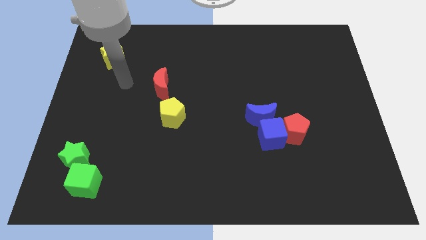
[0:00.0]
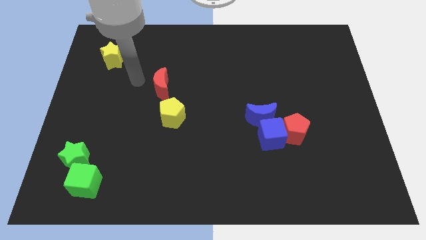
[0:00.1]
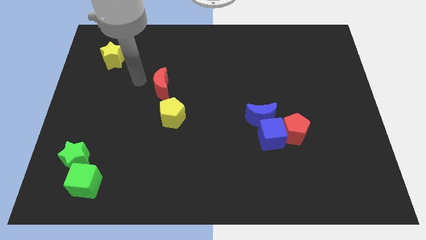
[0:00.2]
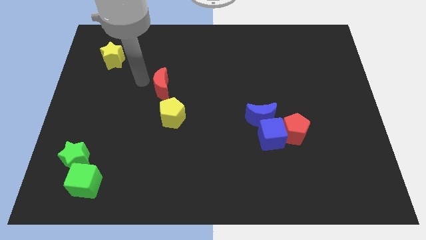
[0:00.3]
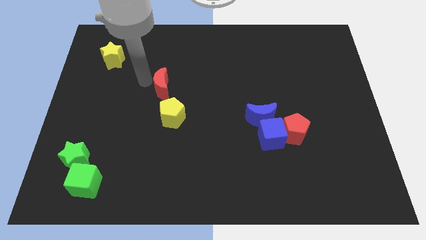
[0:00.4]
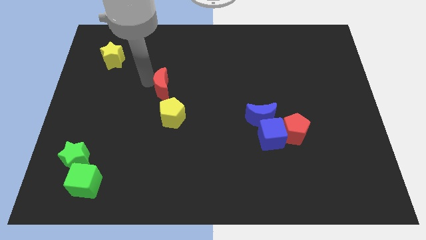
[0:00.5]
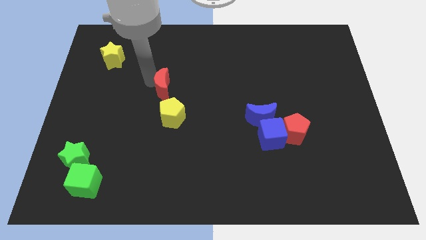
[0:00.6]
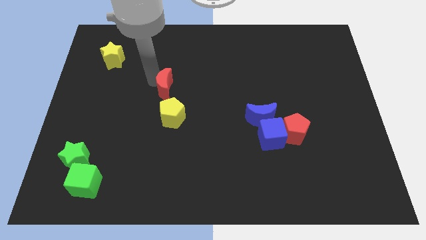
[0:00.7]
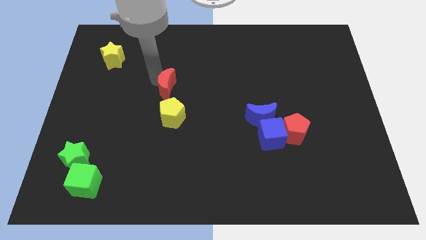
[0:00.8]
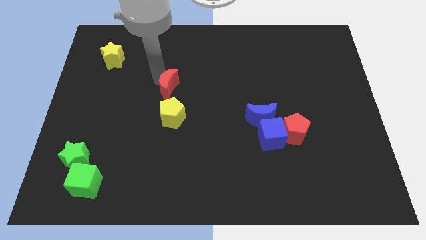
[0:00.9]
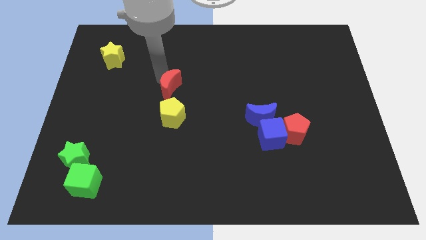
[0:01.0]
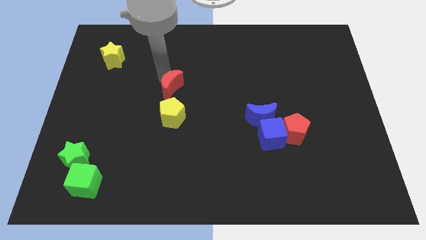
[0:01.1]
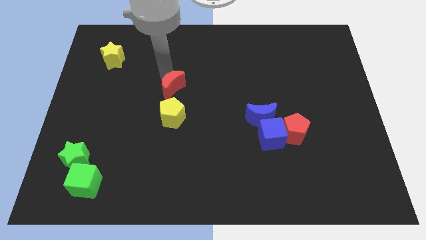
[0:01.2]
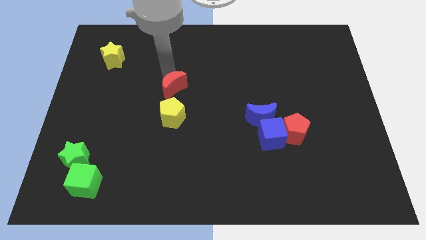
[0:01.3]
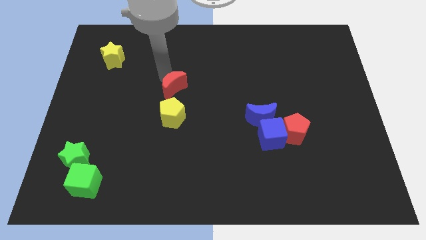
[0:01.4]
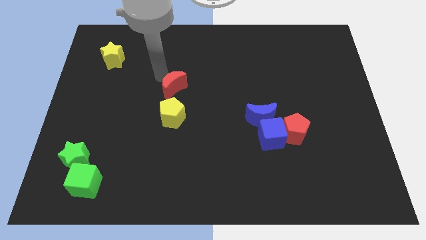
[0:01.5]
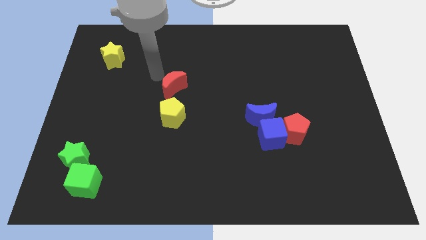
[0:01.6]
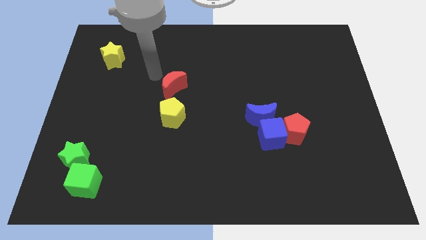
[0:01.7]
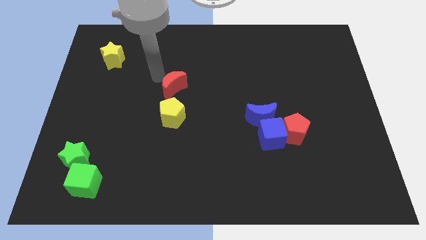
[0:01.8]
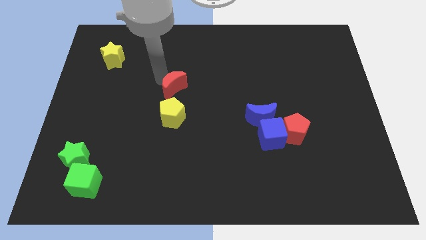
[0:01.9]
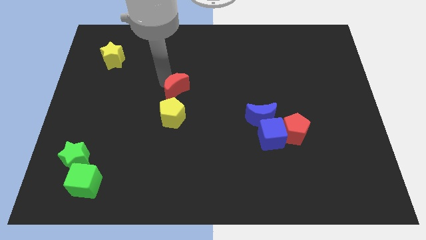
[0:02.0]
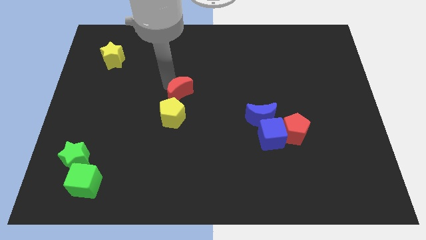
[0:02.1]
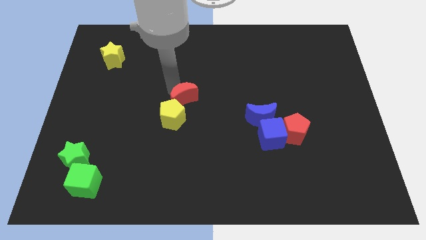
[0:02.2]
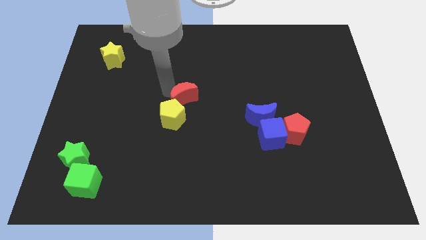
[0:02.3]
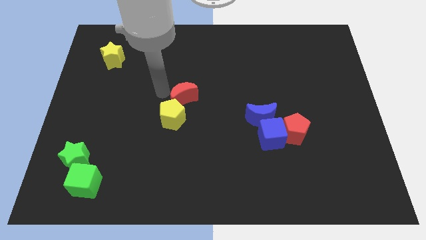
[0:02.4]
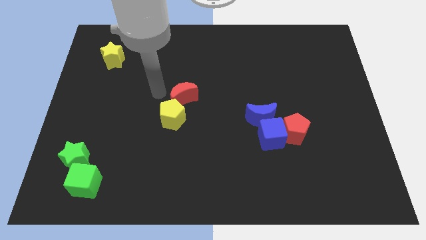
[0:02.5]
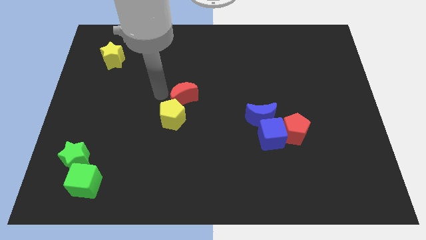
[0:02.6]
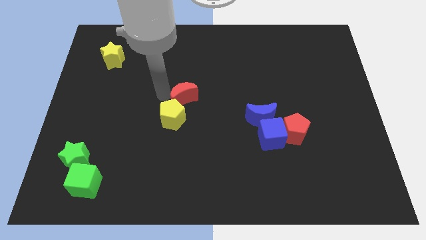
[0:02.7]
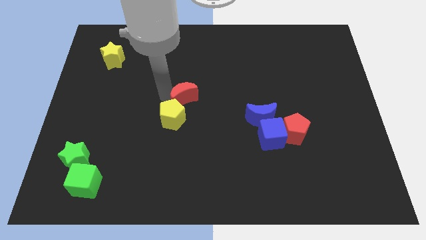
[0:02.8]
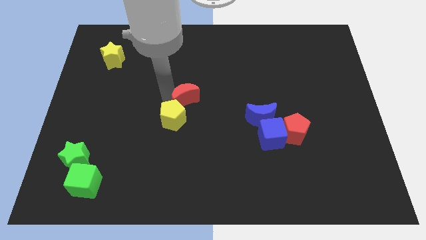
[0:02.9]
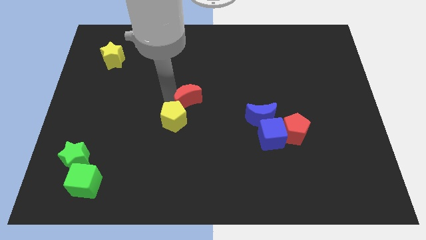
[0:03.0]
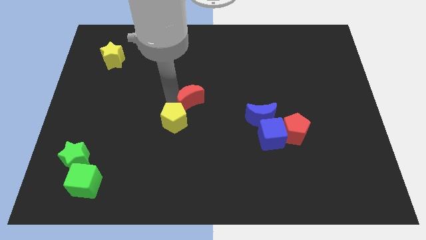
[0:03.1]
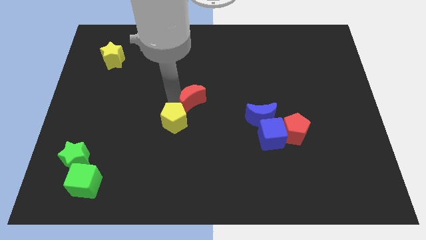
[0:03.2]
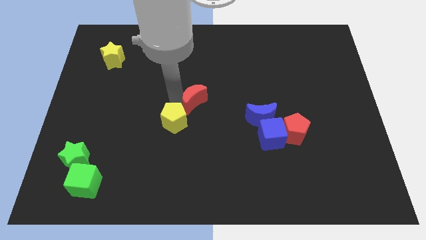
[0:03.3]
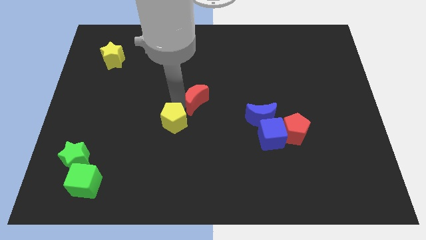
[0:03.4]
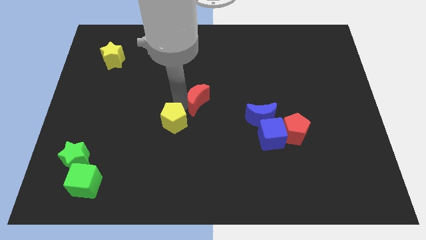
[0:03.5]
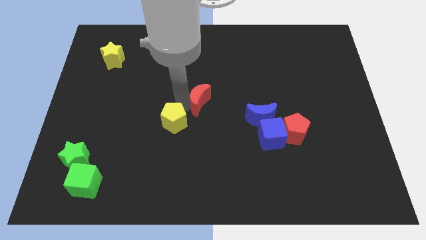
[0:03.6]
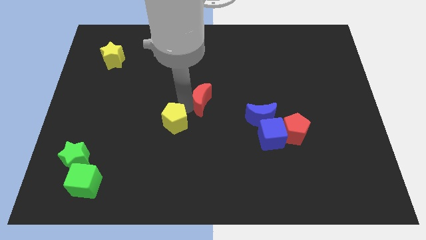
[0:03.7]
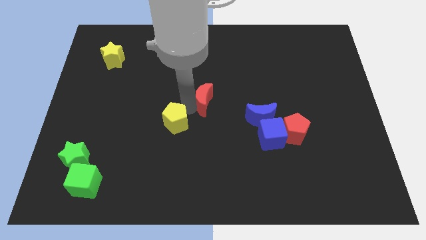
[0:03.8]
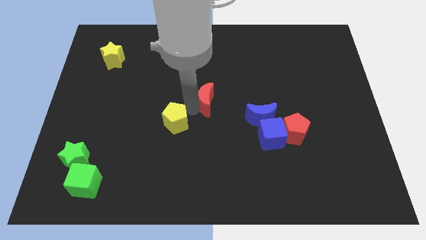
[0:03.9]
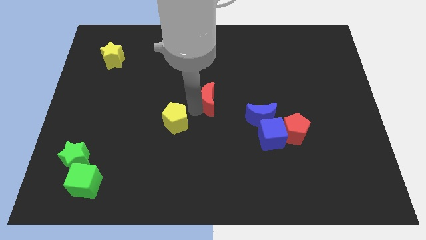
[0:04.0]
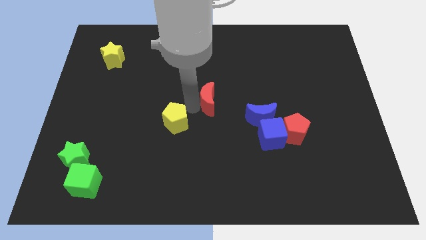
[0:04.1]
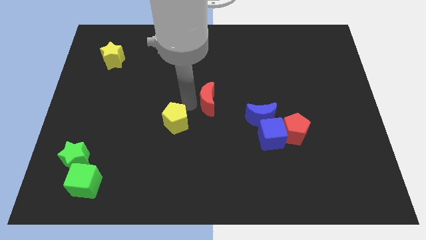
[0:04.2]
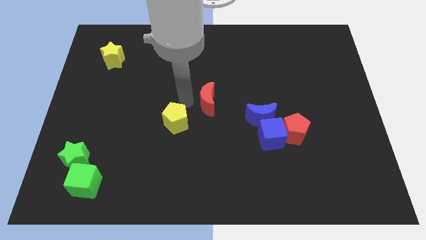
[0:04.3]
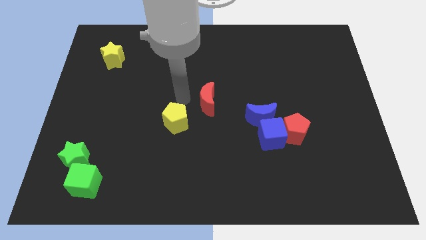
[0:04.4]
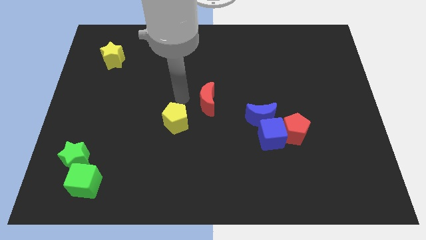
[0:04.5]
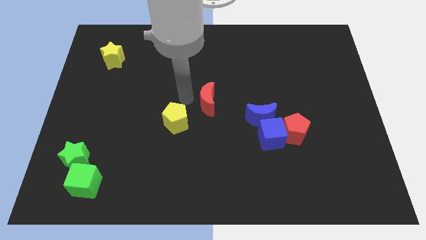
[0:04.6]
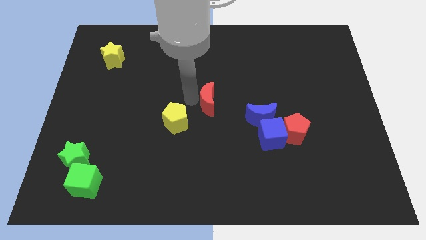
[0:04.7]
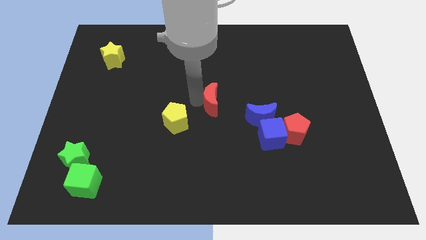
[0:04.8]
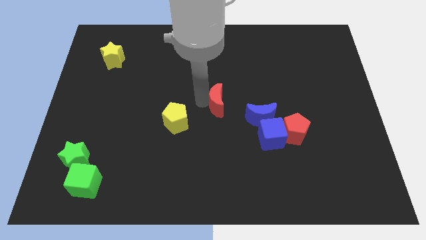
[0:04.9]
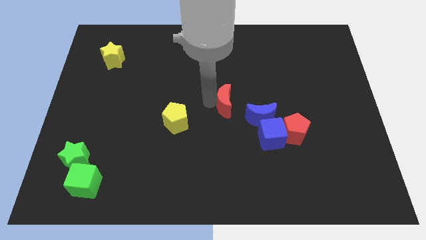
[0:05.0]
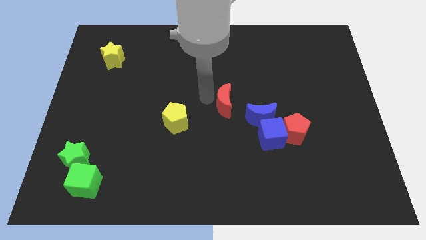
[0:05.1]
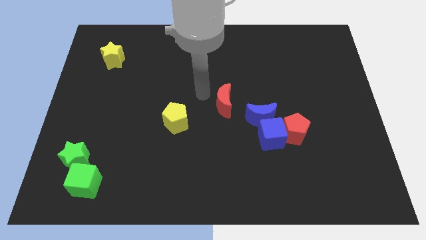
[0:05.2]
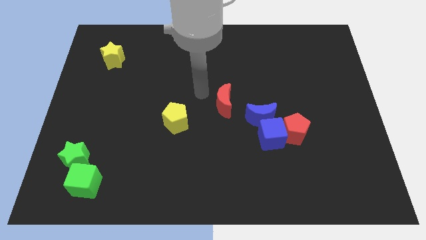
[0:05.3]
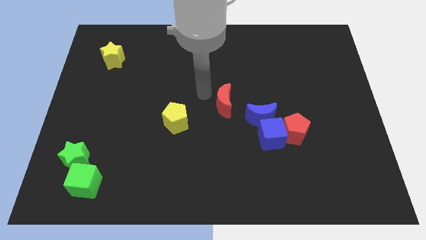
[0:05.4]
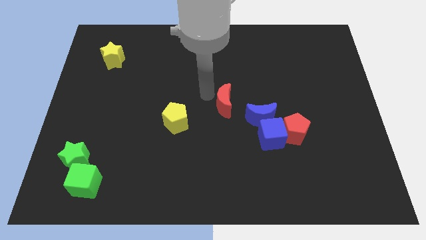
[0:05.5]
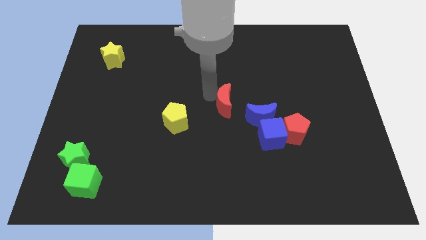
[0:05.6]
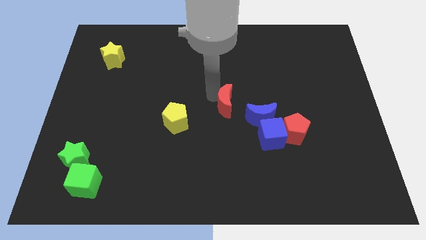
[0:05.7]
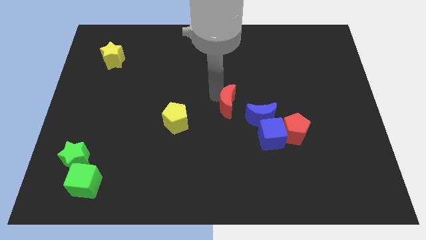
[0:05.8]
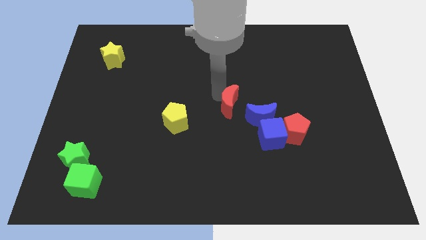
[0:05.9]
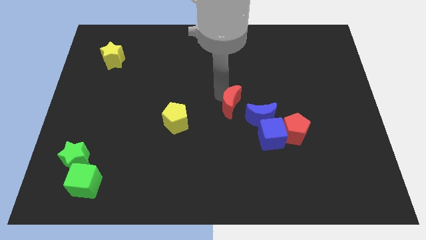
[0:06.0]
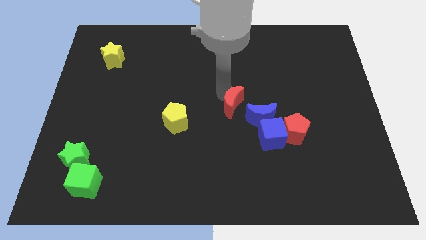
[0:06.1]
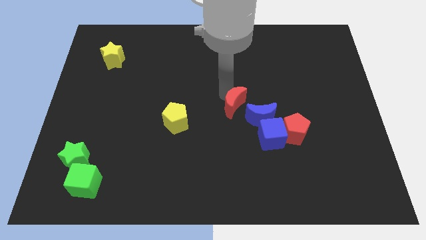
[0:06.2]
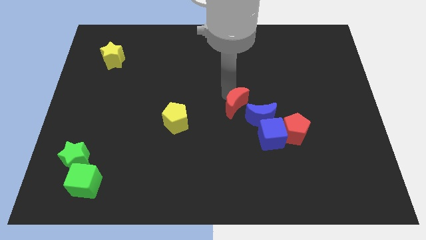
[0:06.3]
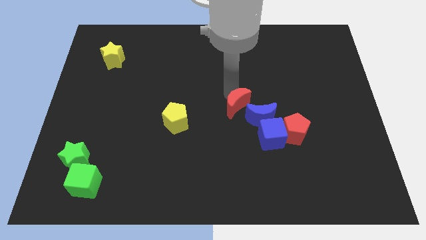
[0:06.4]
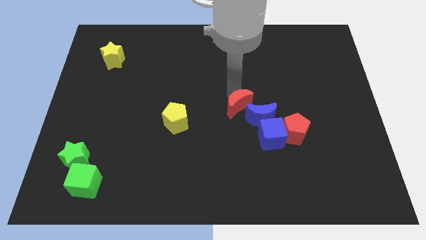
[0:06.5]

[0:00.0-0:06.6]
put the red moon to the blue moon

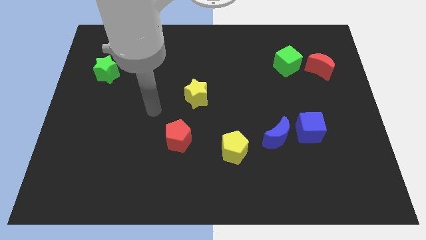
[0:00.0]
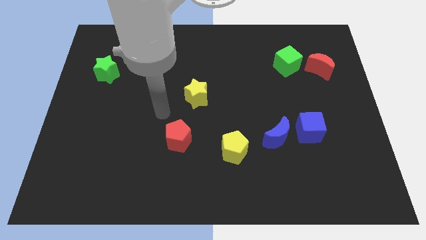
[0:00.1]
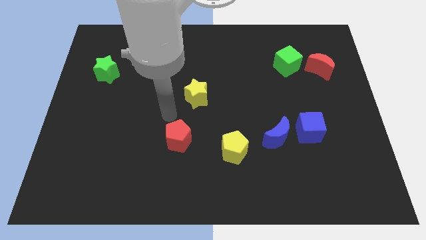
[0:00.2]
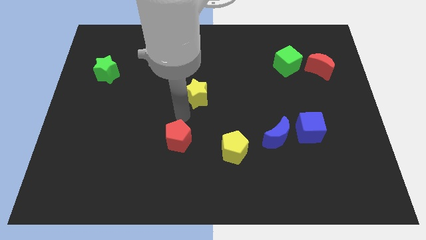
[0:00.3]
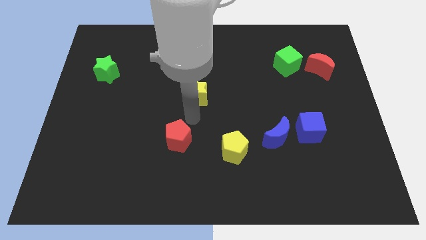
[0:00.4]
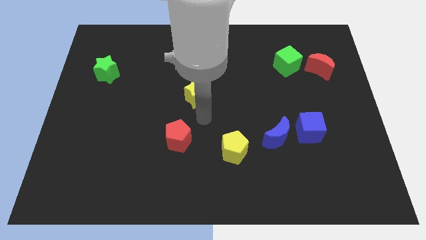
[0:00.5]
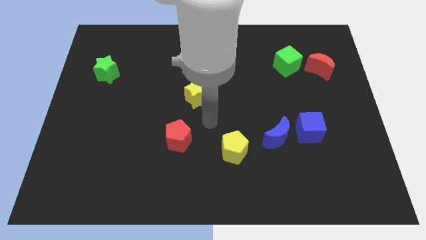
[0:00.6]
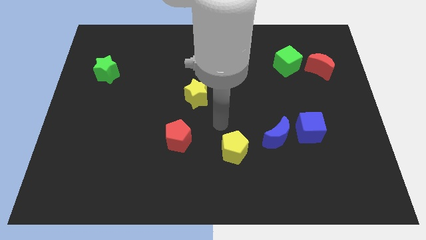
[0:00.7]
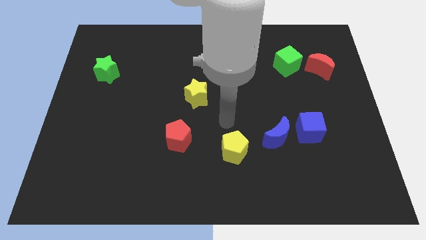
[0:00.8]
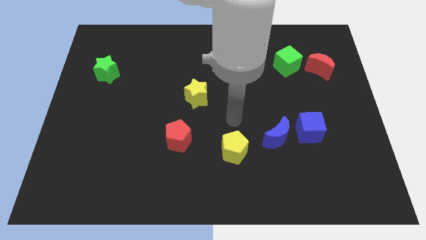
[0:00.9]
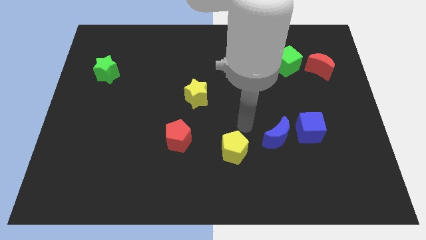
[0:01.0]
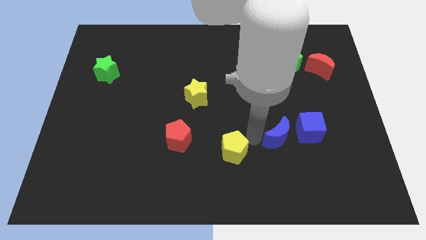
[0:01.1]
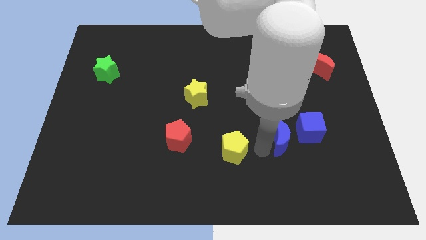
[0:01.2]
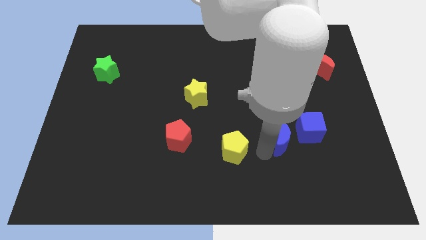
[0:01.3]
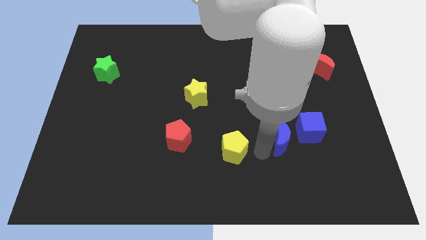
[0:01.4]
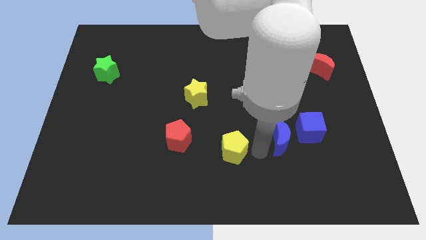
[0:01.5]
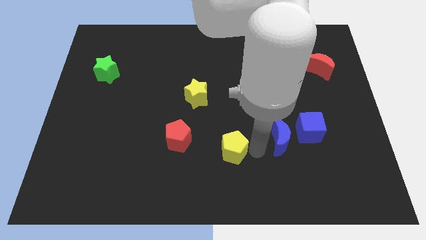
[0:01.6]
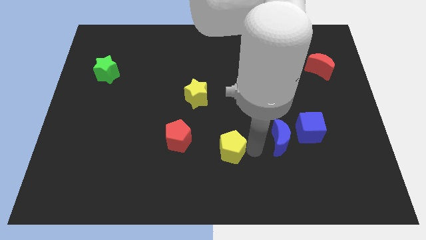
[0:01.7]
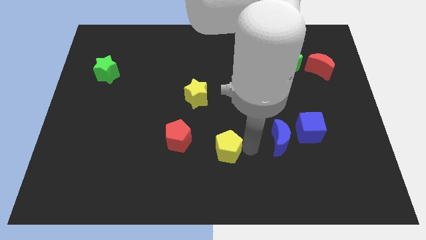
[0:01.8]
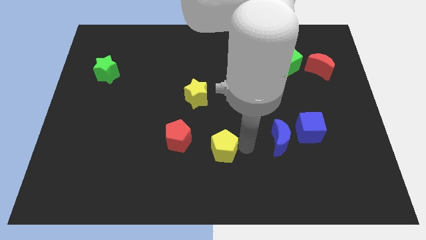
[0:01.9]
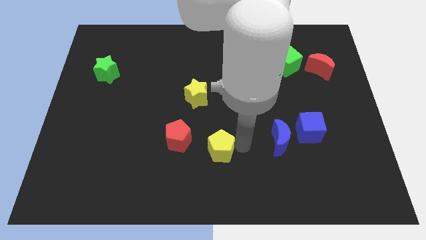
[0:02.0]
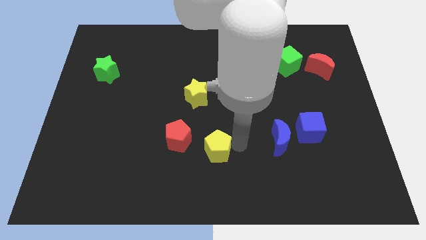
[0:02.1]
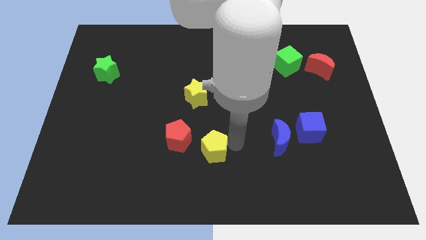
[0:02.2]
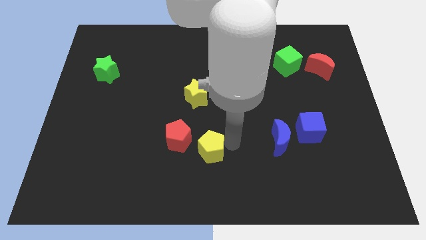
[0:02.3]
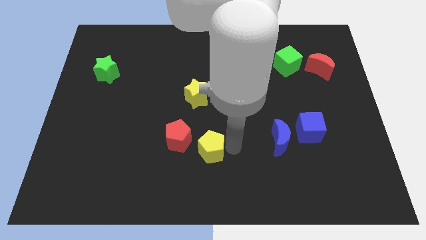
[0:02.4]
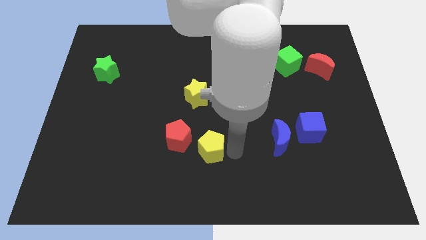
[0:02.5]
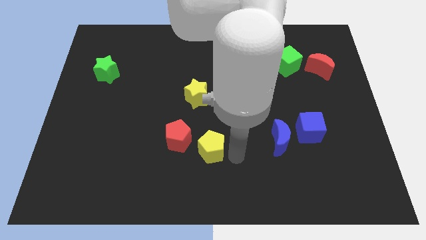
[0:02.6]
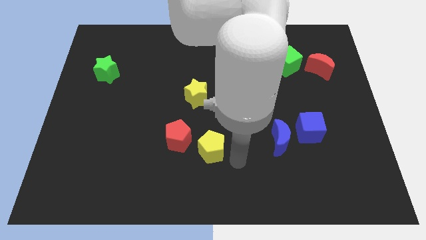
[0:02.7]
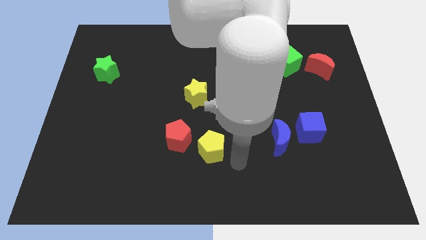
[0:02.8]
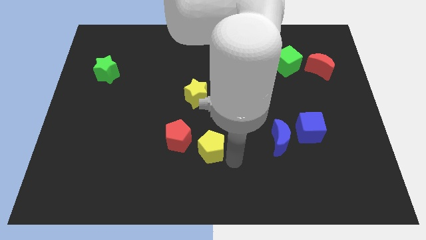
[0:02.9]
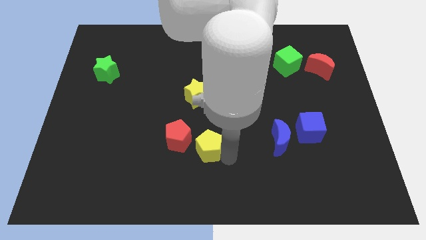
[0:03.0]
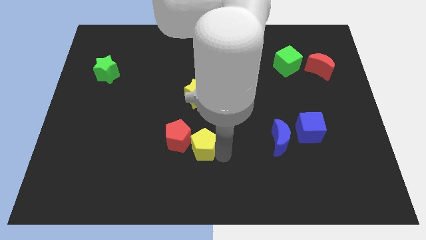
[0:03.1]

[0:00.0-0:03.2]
push the yellow pentagon to the red pentagon
